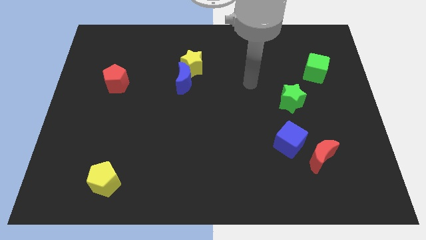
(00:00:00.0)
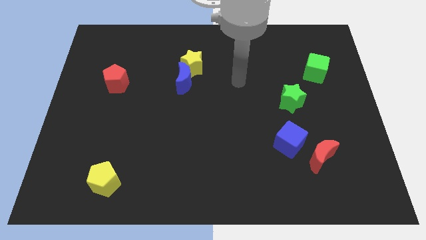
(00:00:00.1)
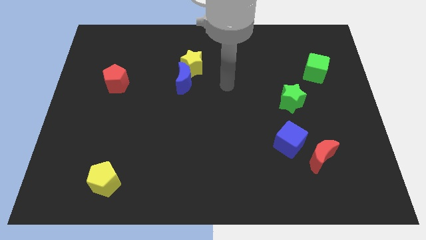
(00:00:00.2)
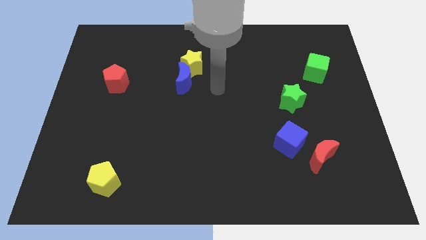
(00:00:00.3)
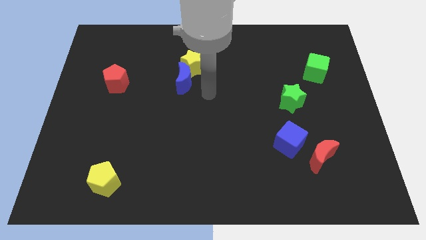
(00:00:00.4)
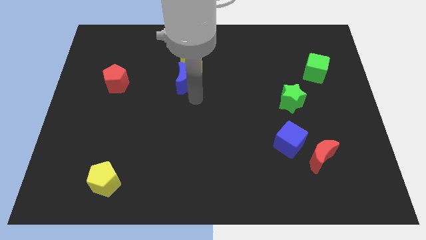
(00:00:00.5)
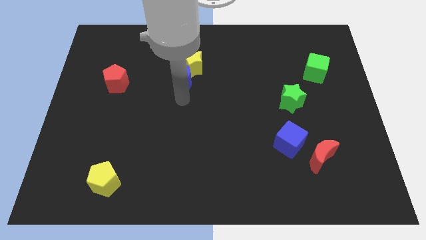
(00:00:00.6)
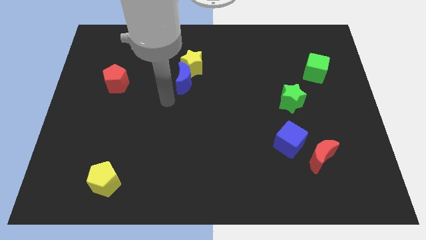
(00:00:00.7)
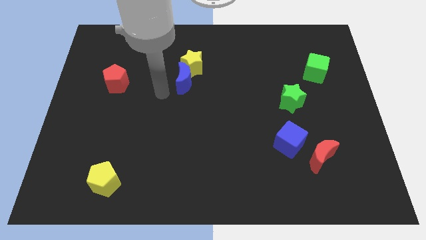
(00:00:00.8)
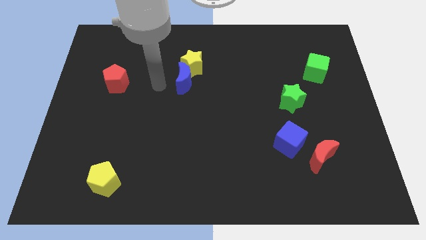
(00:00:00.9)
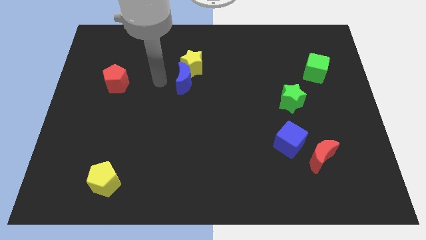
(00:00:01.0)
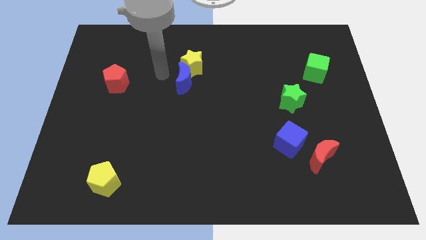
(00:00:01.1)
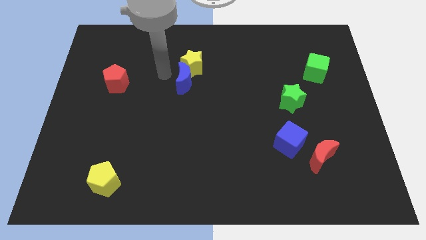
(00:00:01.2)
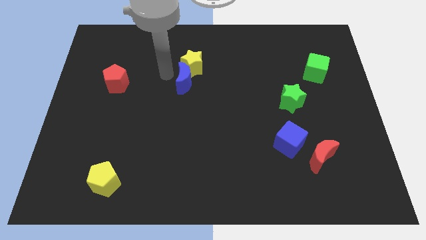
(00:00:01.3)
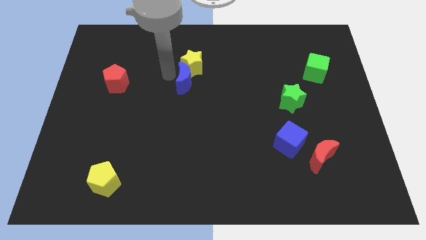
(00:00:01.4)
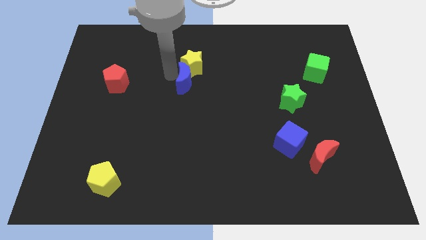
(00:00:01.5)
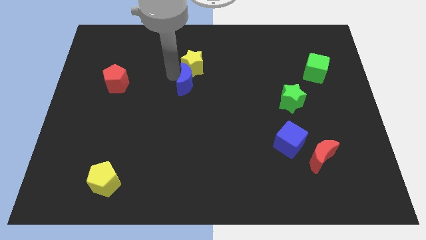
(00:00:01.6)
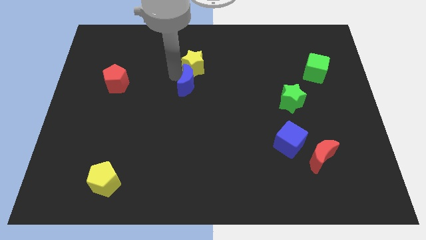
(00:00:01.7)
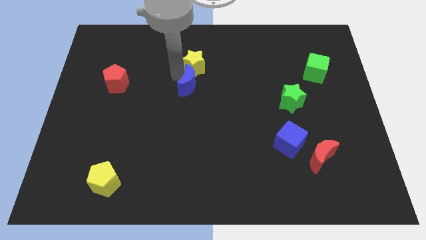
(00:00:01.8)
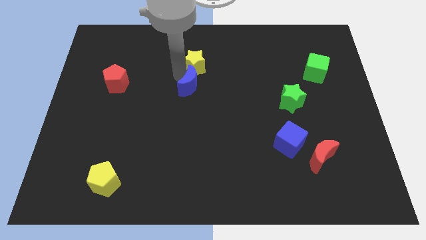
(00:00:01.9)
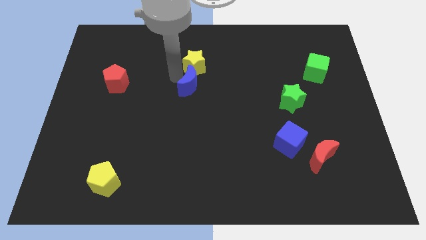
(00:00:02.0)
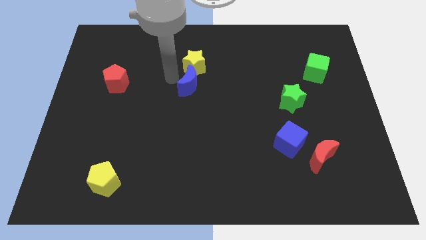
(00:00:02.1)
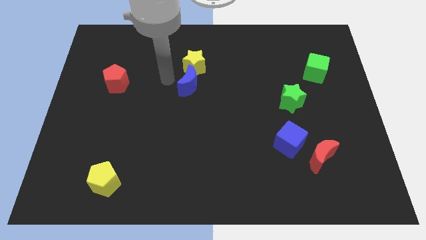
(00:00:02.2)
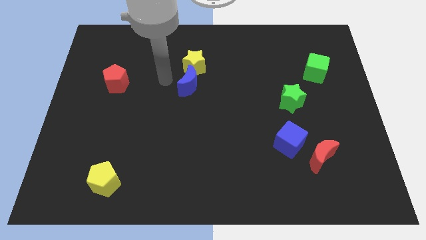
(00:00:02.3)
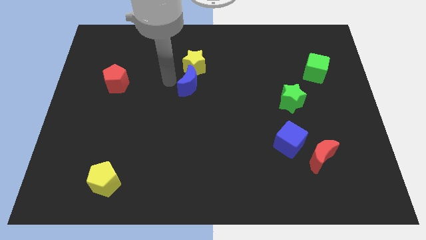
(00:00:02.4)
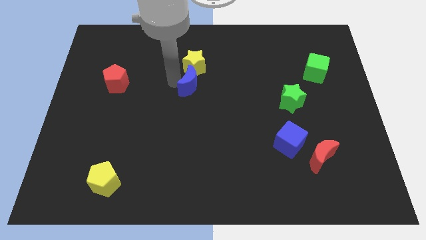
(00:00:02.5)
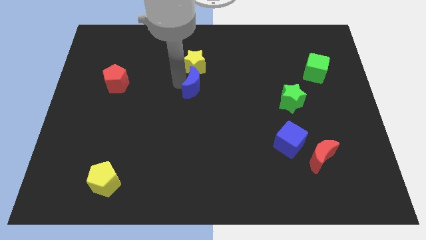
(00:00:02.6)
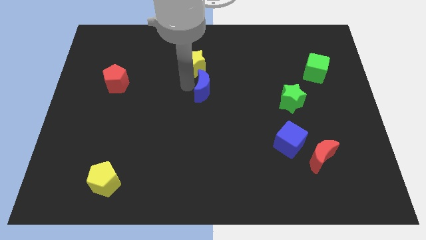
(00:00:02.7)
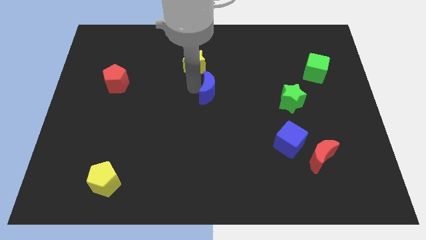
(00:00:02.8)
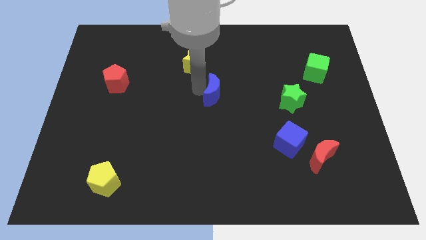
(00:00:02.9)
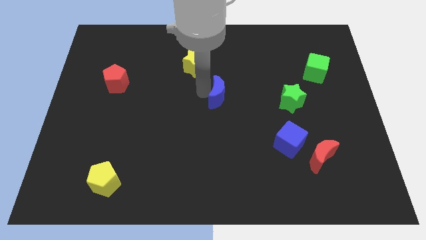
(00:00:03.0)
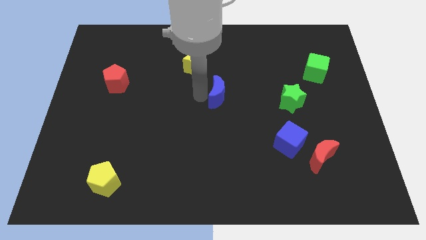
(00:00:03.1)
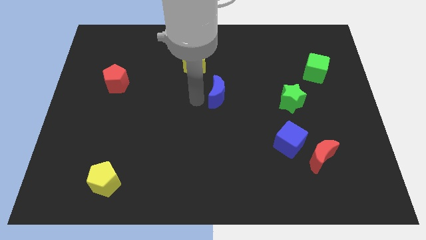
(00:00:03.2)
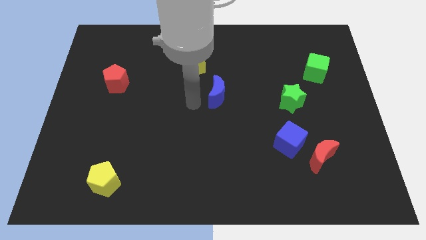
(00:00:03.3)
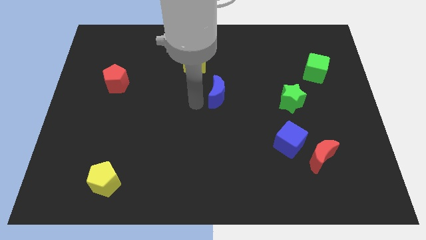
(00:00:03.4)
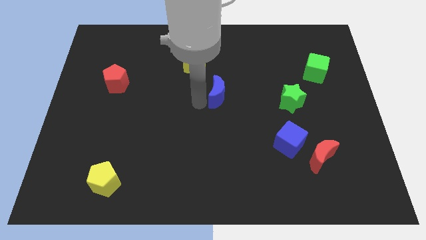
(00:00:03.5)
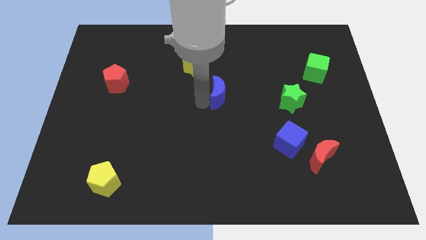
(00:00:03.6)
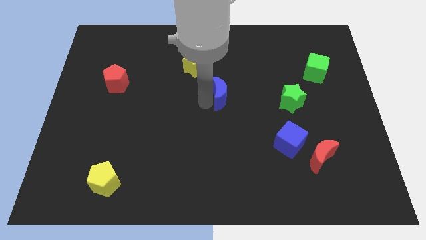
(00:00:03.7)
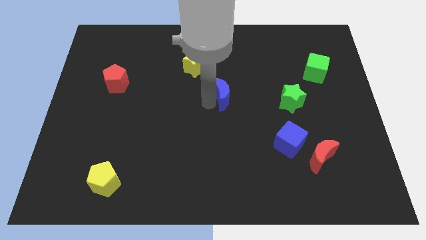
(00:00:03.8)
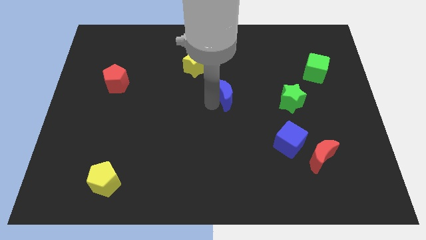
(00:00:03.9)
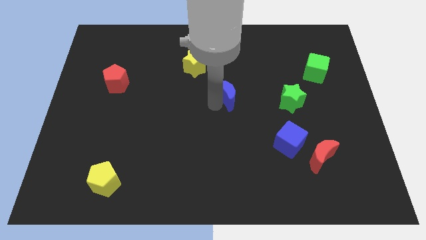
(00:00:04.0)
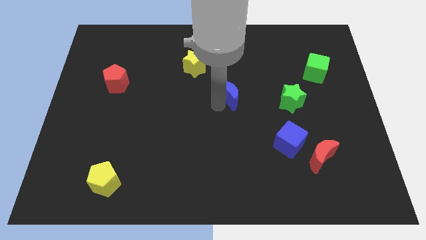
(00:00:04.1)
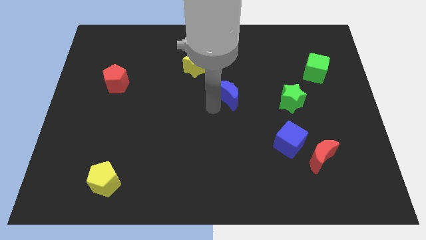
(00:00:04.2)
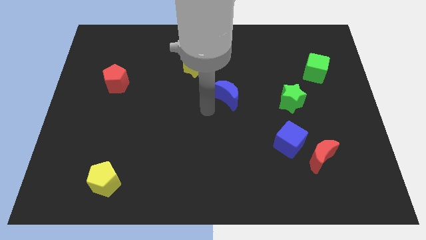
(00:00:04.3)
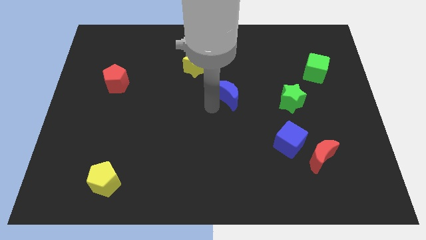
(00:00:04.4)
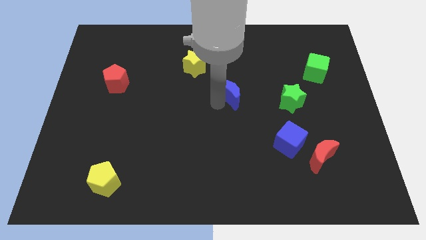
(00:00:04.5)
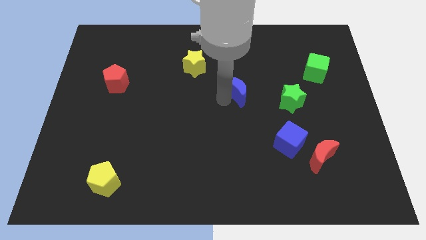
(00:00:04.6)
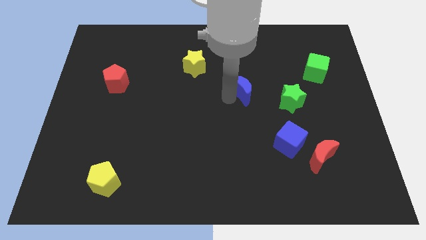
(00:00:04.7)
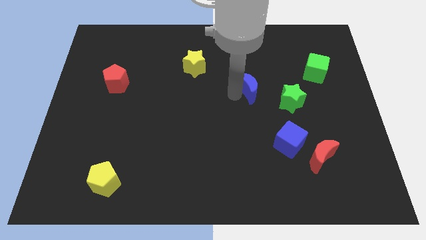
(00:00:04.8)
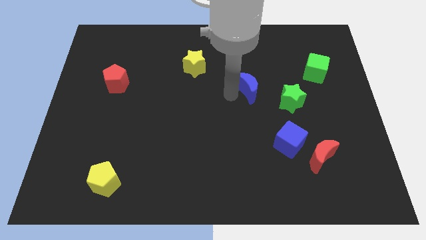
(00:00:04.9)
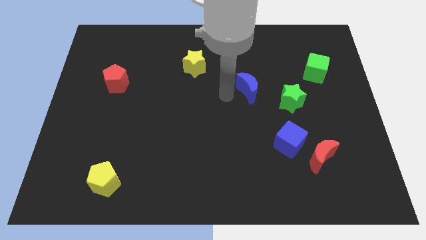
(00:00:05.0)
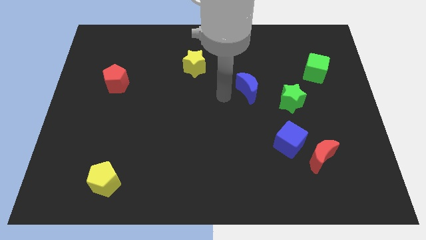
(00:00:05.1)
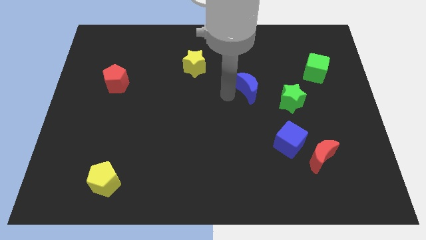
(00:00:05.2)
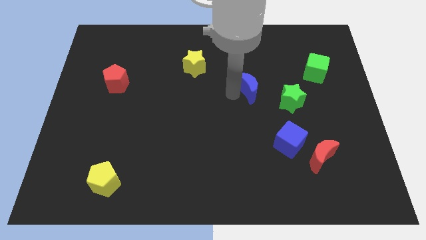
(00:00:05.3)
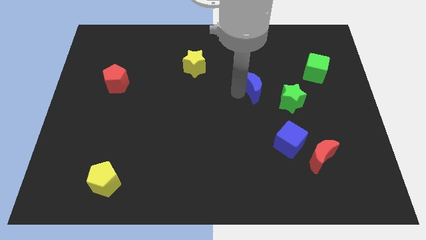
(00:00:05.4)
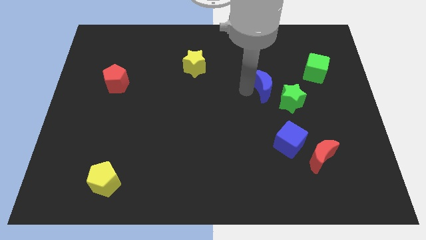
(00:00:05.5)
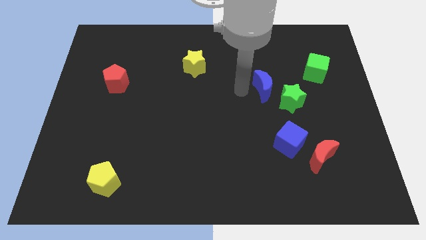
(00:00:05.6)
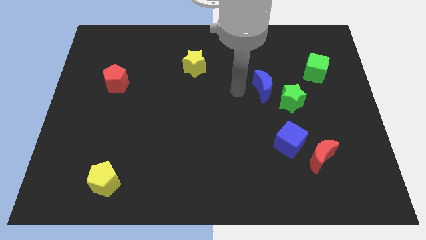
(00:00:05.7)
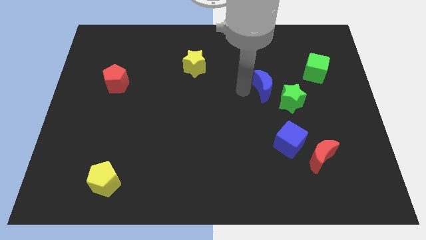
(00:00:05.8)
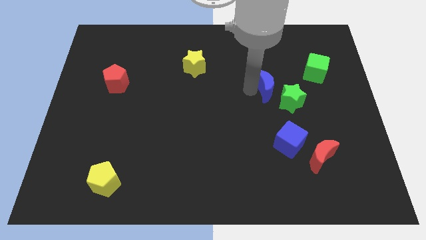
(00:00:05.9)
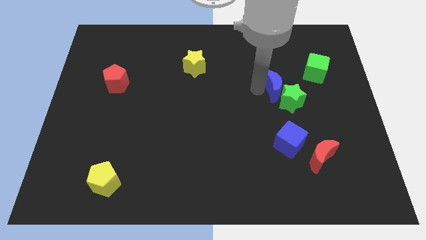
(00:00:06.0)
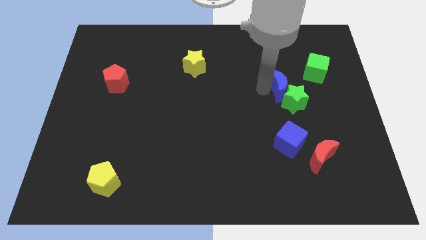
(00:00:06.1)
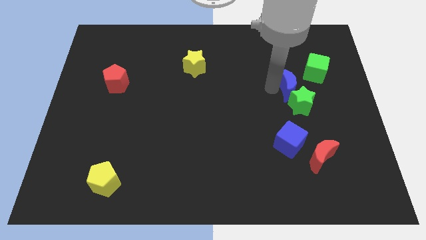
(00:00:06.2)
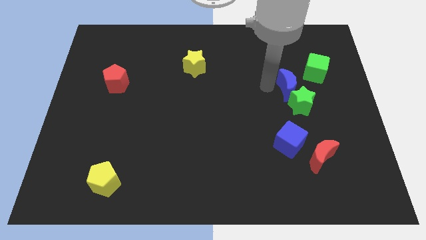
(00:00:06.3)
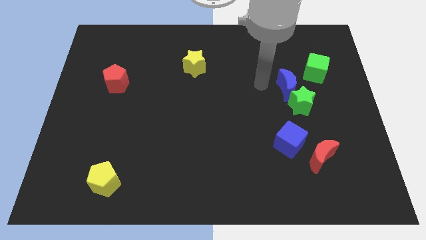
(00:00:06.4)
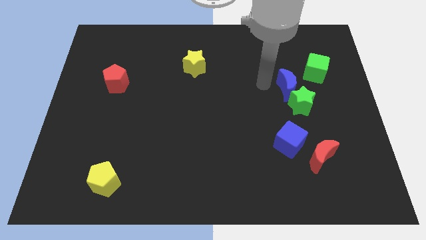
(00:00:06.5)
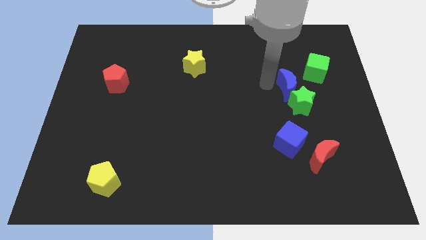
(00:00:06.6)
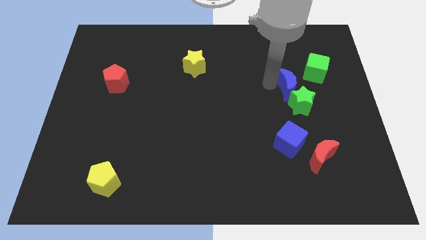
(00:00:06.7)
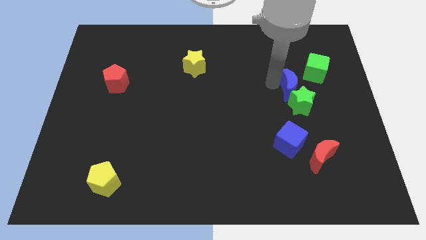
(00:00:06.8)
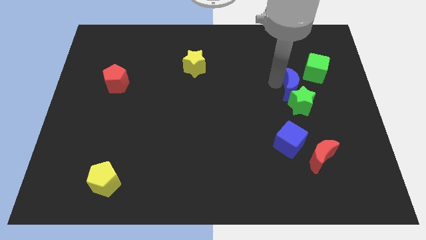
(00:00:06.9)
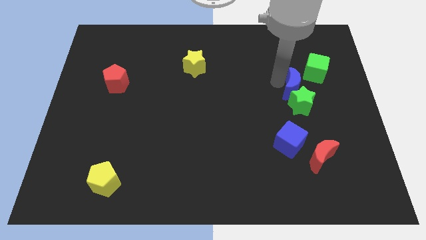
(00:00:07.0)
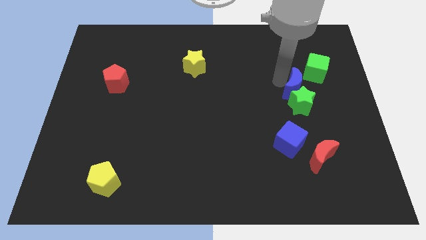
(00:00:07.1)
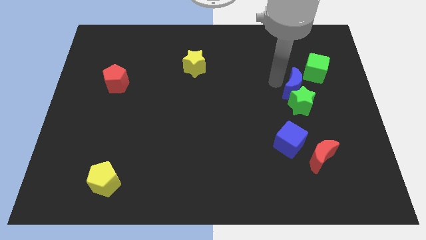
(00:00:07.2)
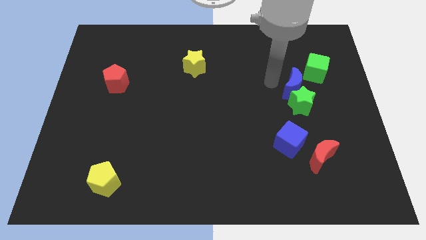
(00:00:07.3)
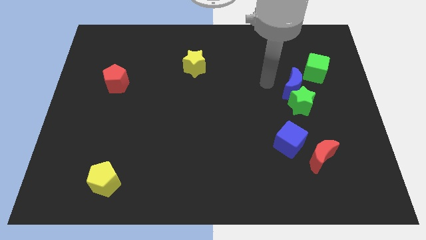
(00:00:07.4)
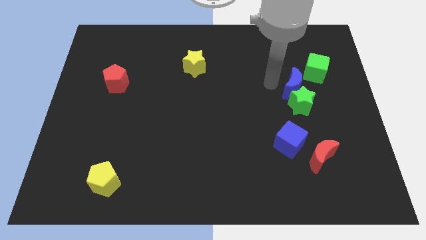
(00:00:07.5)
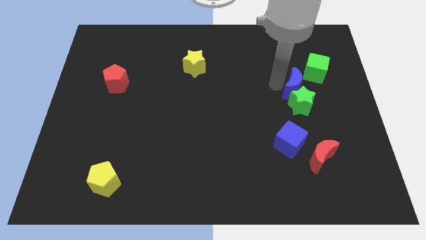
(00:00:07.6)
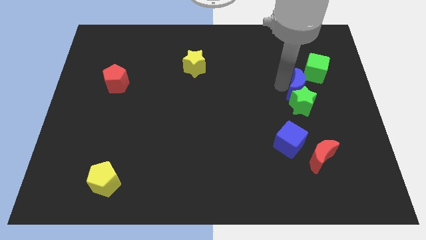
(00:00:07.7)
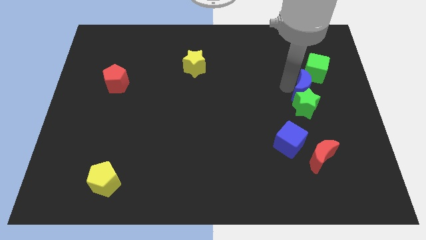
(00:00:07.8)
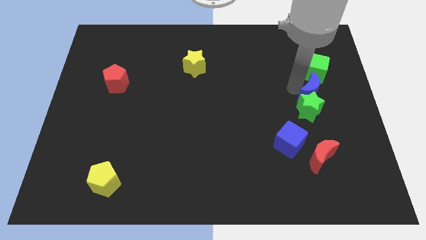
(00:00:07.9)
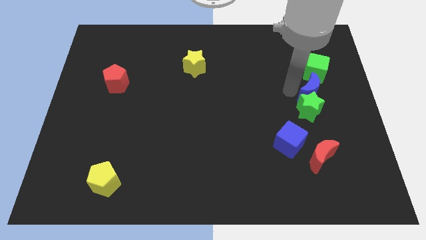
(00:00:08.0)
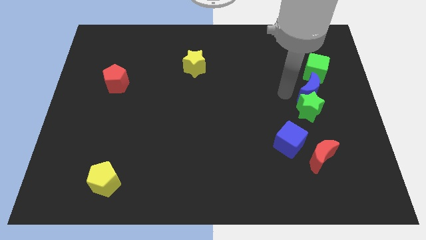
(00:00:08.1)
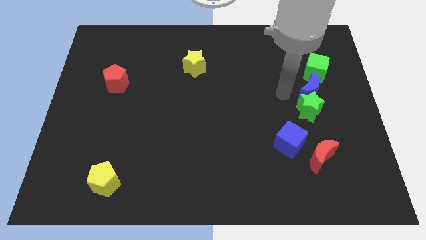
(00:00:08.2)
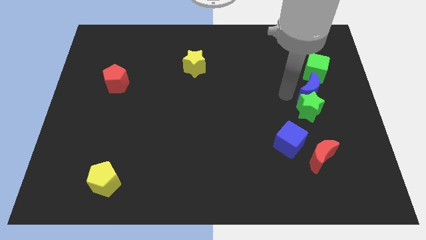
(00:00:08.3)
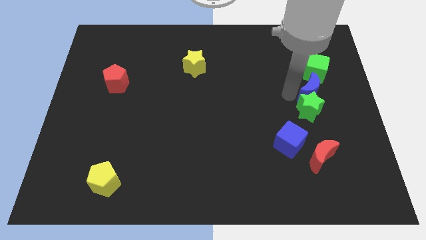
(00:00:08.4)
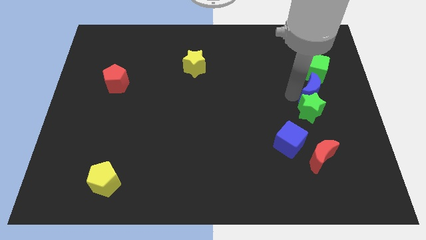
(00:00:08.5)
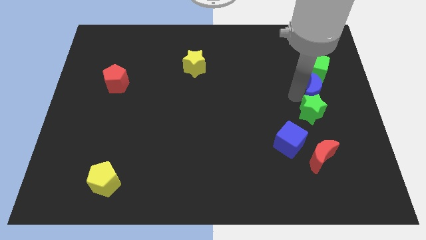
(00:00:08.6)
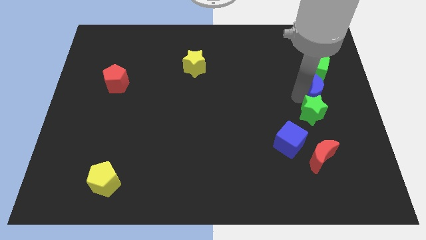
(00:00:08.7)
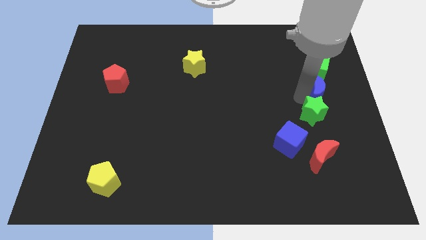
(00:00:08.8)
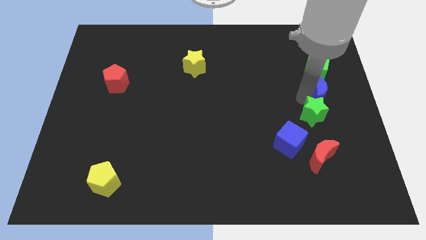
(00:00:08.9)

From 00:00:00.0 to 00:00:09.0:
put the blue moon to the center right
